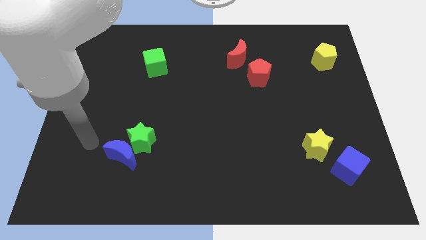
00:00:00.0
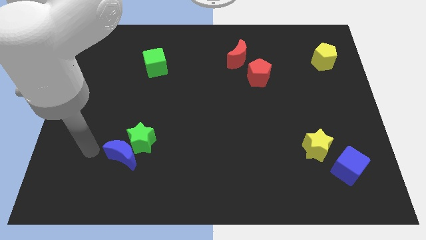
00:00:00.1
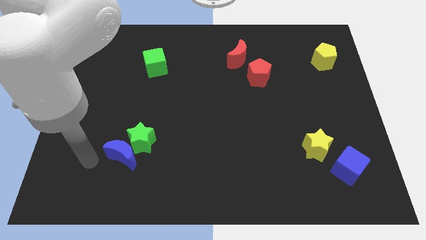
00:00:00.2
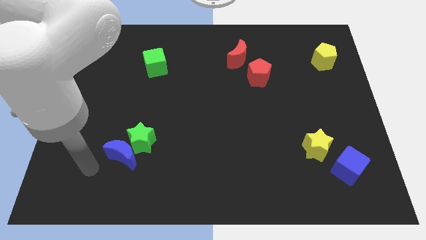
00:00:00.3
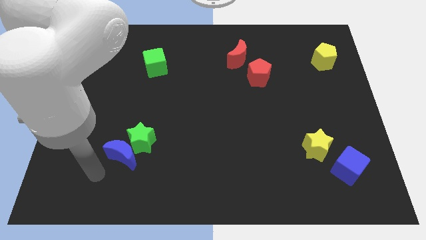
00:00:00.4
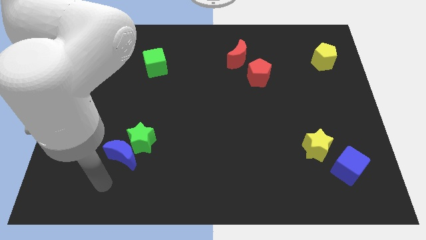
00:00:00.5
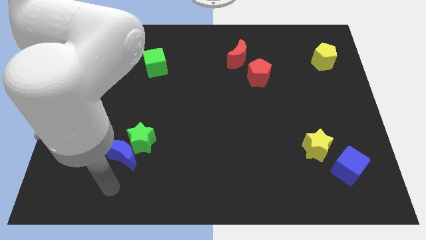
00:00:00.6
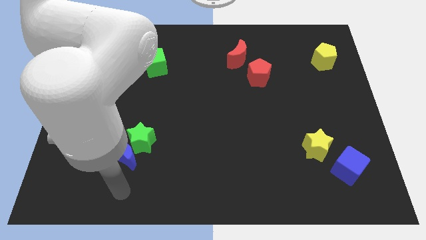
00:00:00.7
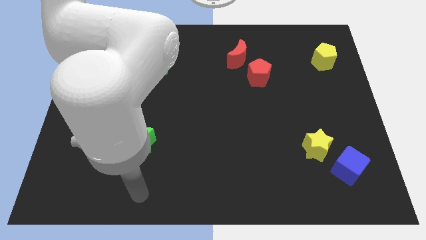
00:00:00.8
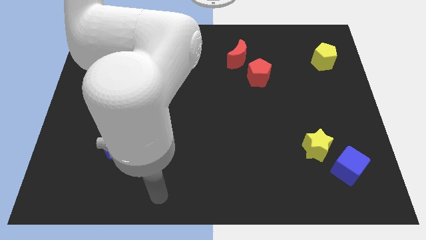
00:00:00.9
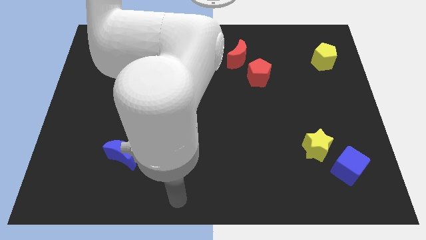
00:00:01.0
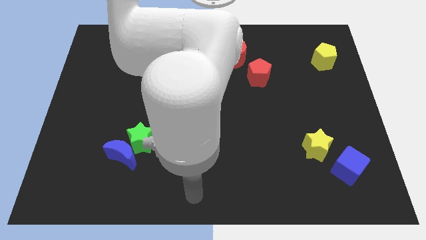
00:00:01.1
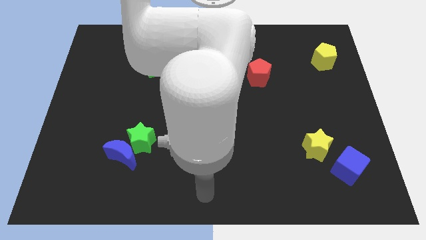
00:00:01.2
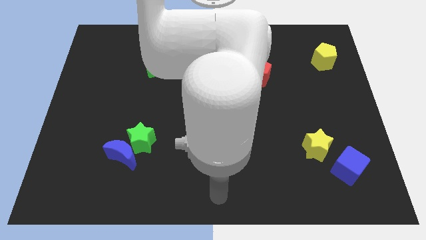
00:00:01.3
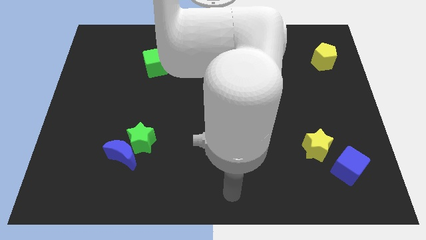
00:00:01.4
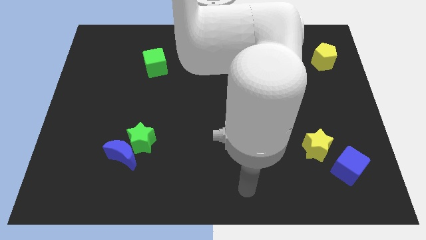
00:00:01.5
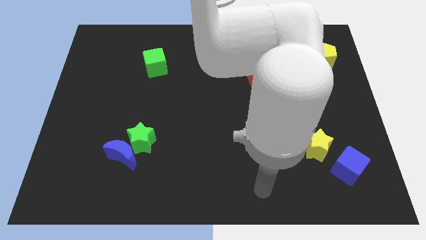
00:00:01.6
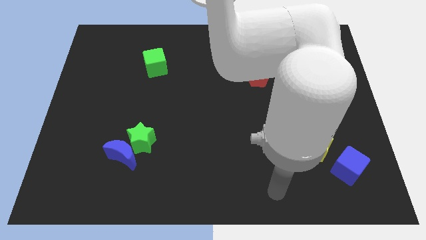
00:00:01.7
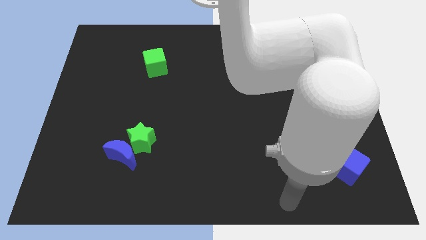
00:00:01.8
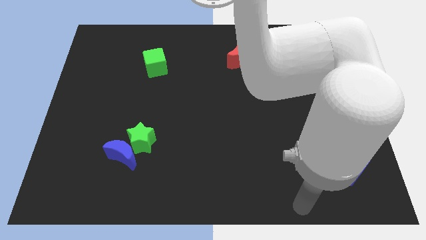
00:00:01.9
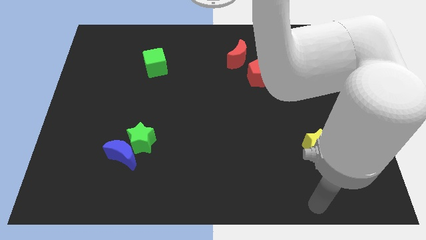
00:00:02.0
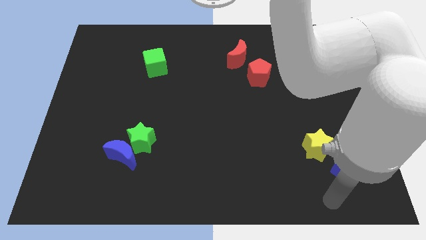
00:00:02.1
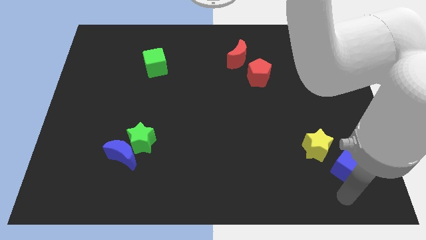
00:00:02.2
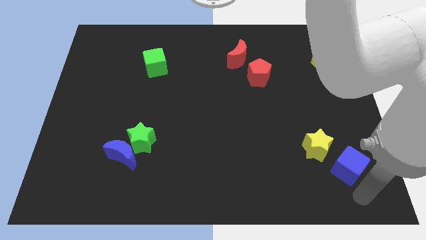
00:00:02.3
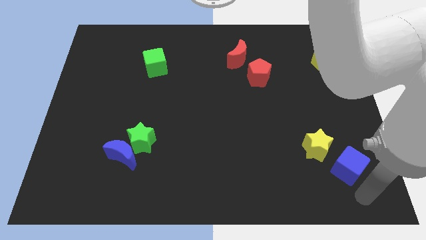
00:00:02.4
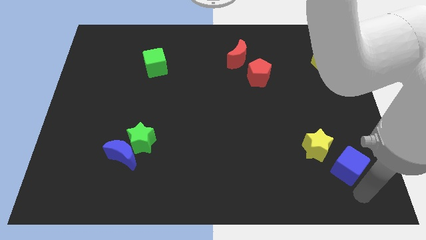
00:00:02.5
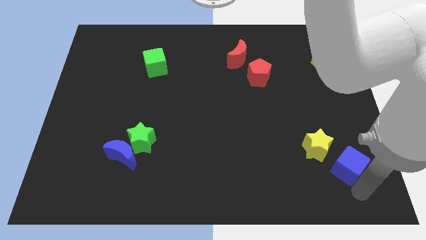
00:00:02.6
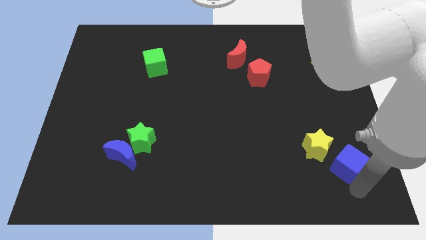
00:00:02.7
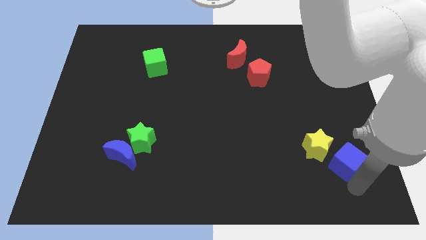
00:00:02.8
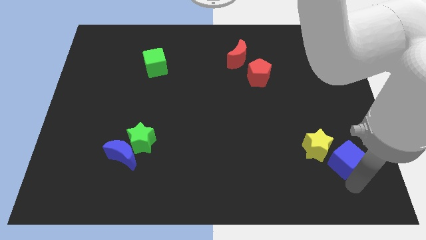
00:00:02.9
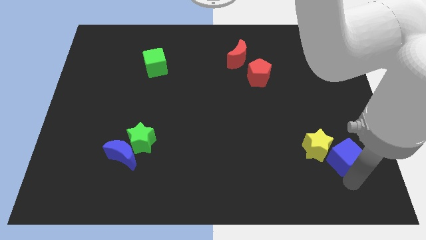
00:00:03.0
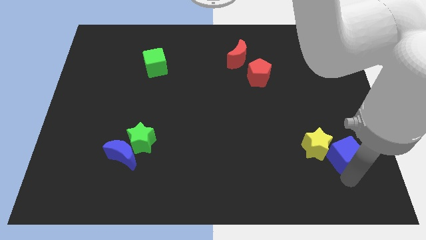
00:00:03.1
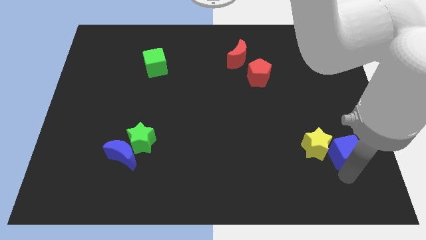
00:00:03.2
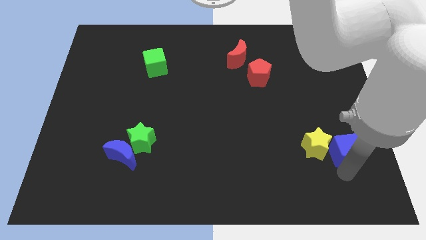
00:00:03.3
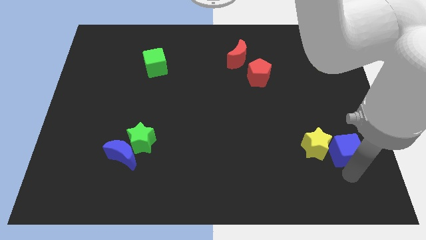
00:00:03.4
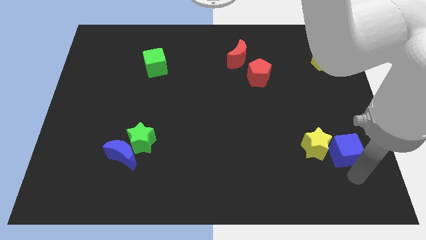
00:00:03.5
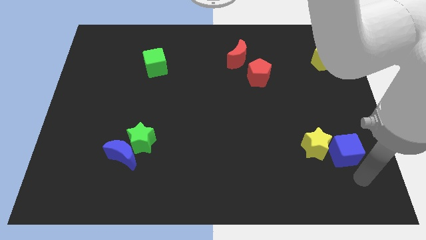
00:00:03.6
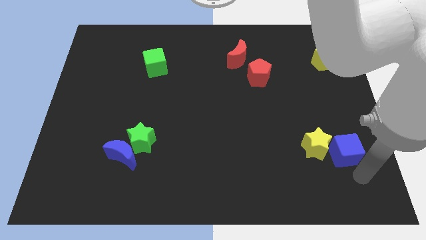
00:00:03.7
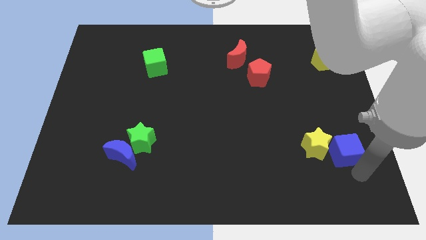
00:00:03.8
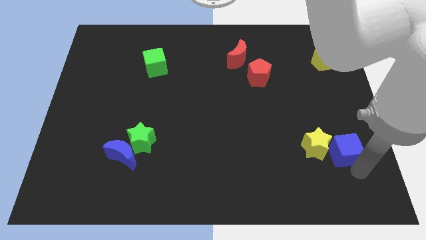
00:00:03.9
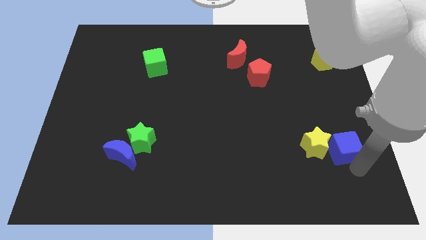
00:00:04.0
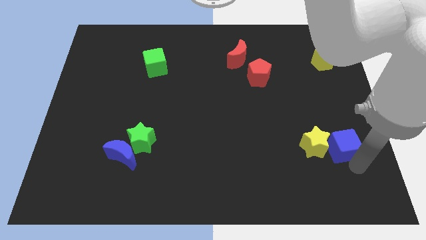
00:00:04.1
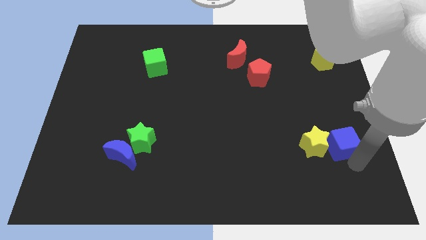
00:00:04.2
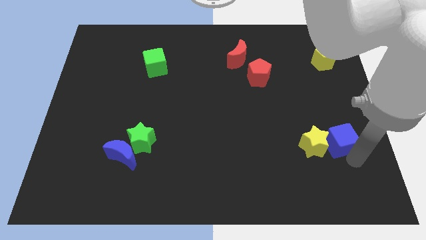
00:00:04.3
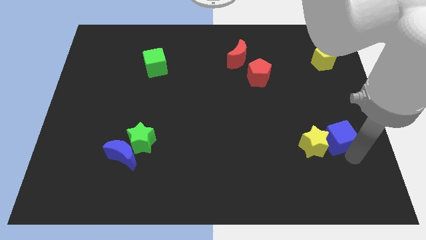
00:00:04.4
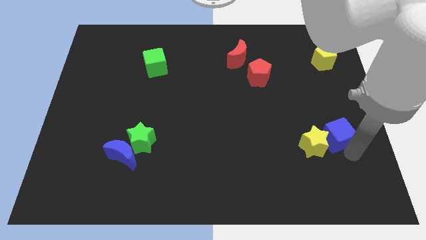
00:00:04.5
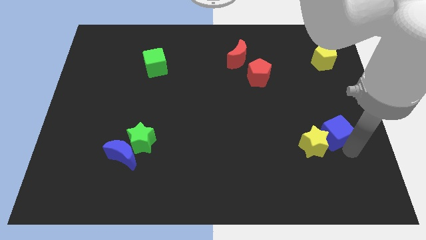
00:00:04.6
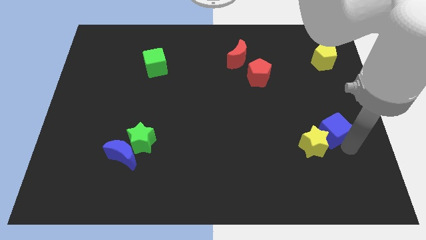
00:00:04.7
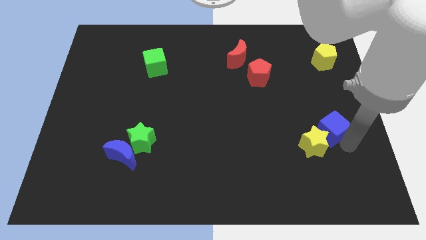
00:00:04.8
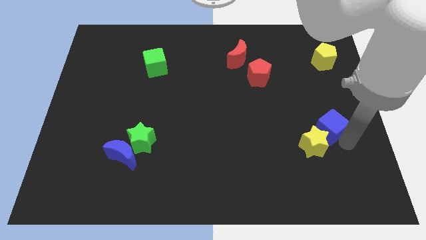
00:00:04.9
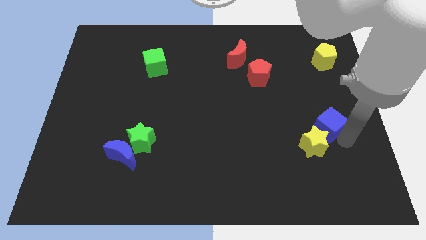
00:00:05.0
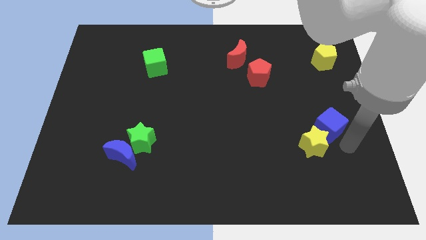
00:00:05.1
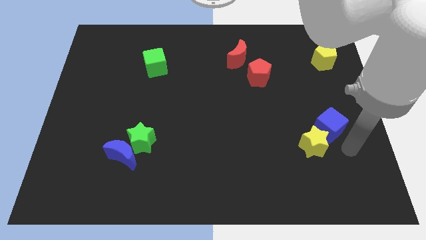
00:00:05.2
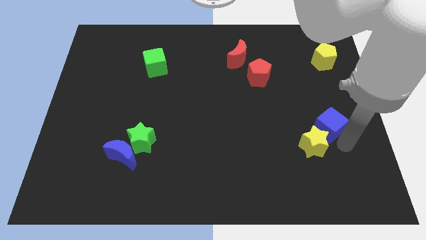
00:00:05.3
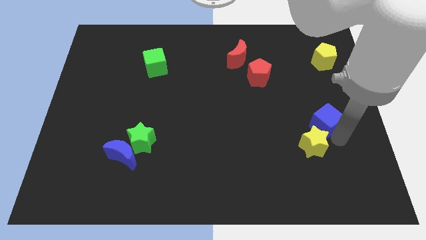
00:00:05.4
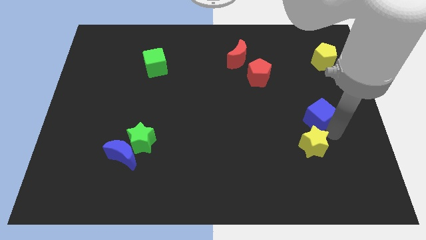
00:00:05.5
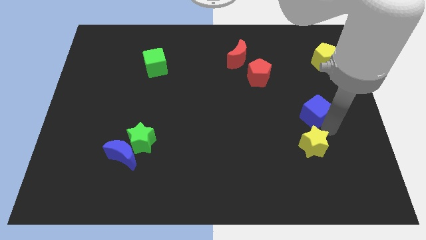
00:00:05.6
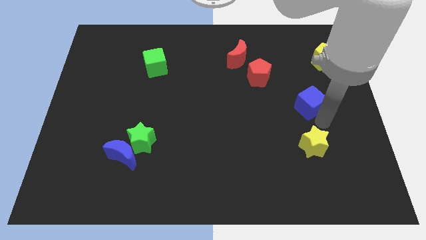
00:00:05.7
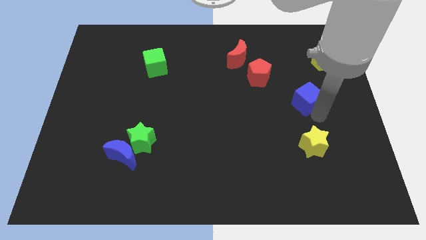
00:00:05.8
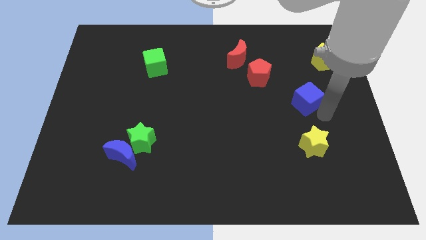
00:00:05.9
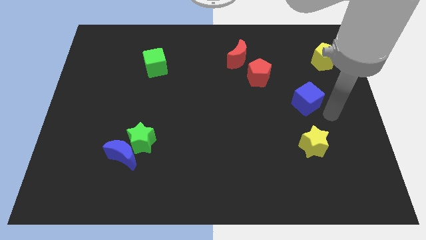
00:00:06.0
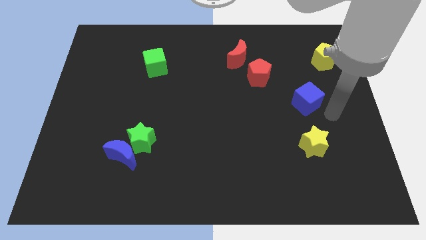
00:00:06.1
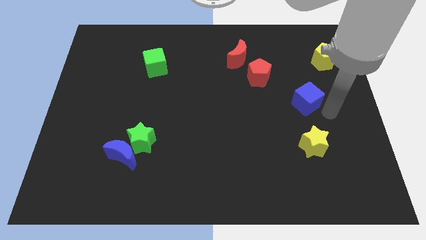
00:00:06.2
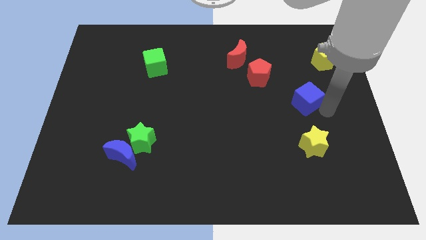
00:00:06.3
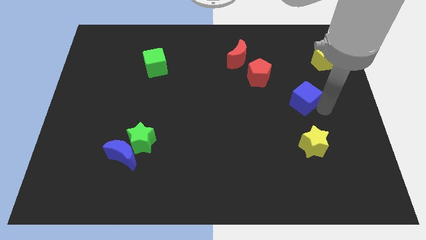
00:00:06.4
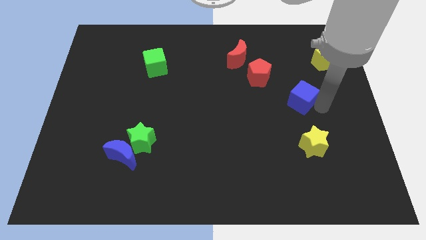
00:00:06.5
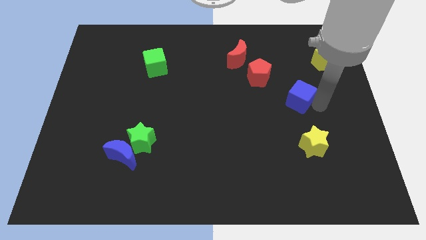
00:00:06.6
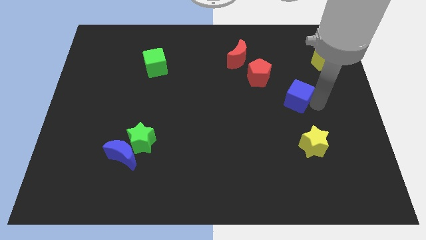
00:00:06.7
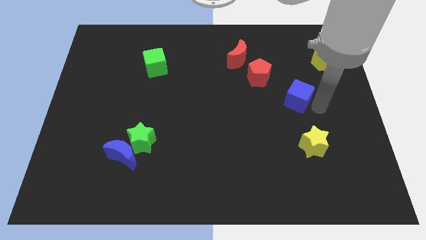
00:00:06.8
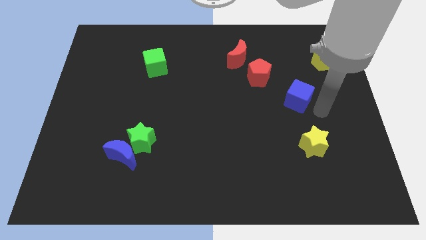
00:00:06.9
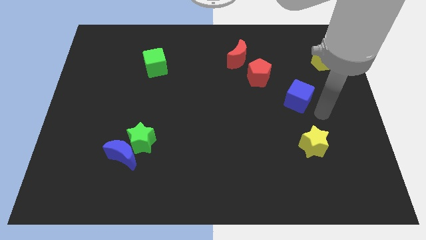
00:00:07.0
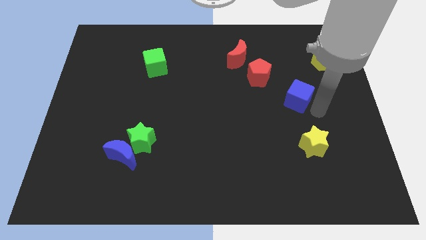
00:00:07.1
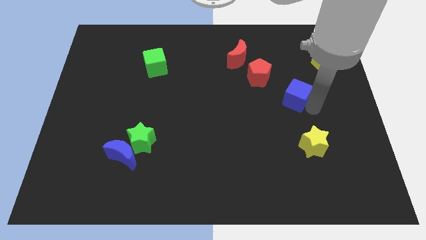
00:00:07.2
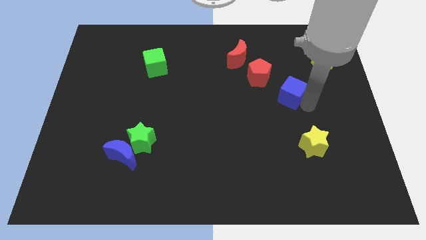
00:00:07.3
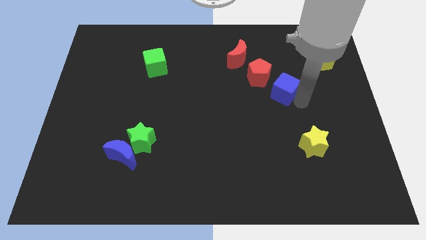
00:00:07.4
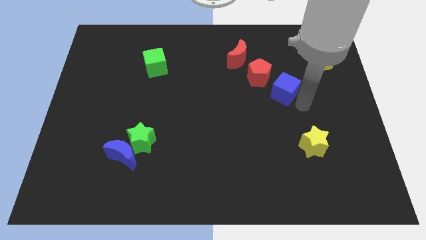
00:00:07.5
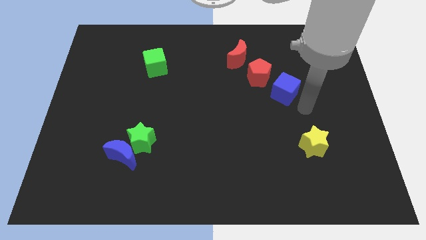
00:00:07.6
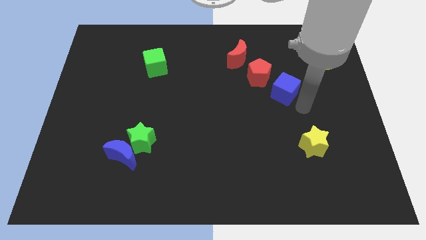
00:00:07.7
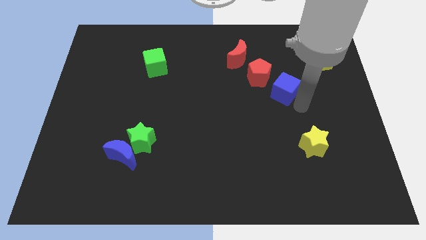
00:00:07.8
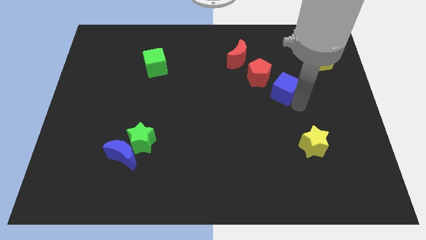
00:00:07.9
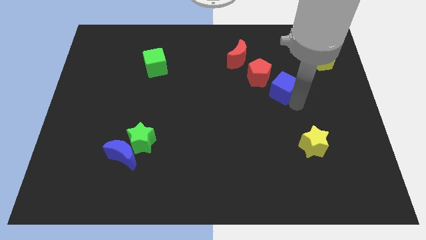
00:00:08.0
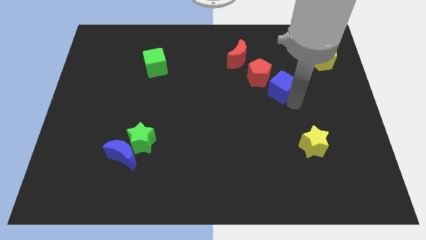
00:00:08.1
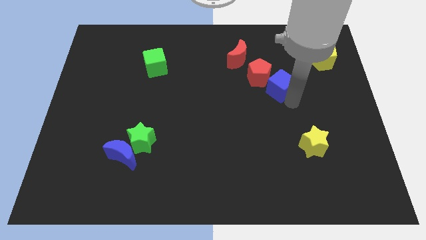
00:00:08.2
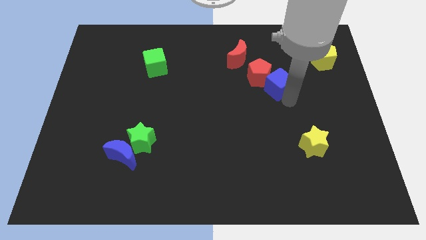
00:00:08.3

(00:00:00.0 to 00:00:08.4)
move the blue cube towards the red pentagon
